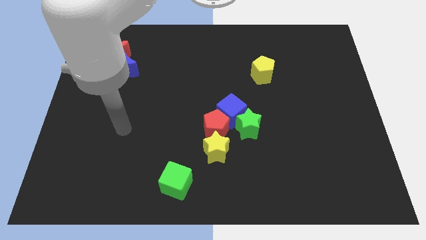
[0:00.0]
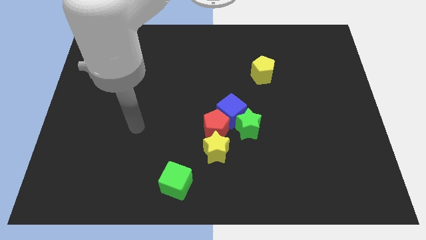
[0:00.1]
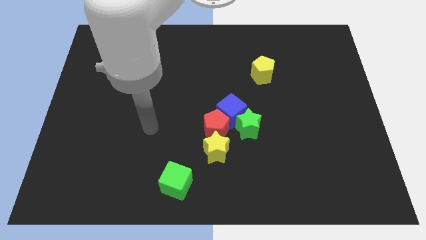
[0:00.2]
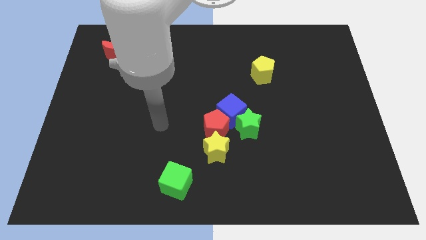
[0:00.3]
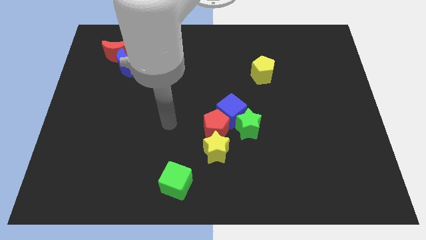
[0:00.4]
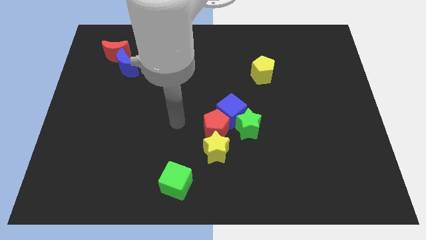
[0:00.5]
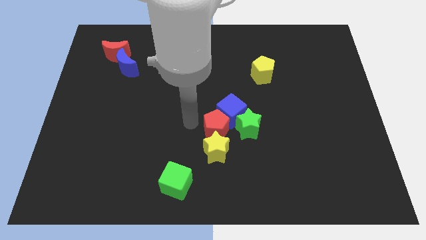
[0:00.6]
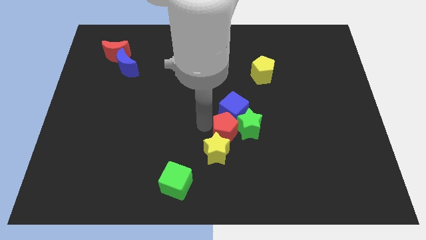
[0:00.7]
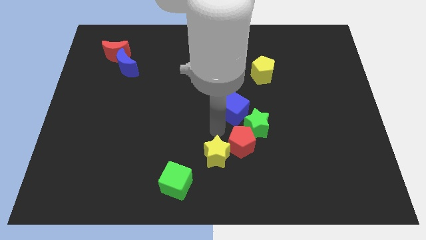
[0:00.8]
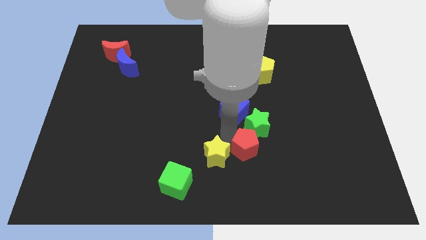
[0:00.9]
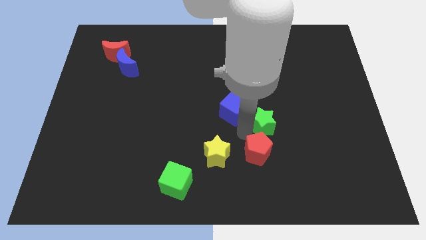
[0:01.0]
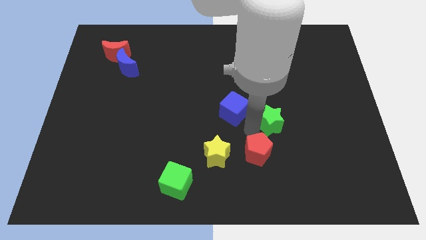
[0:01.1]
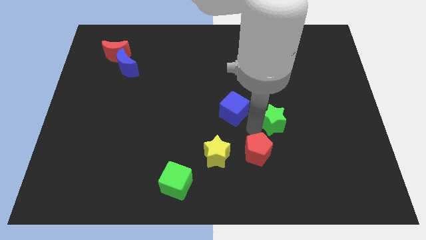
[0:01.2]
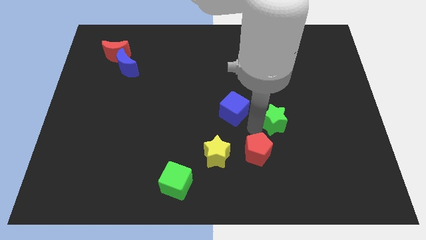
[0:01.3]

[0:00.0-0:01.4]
pull the blue cube apart from the red pentagon and green star

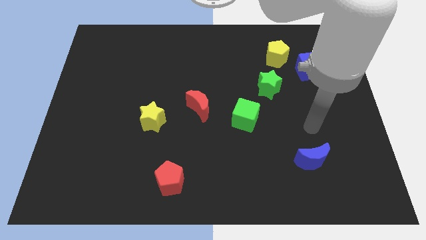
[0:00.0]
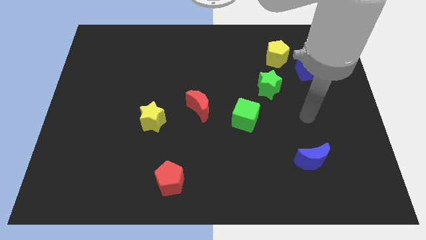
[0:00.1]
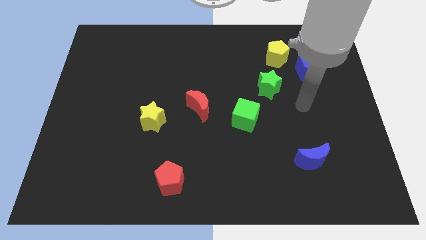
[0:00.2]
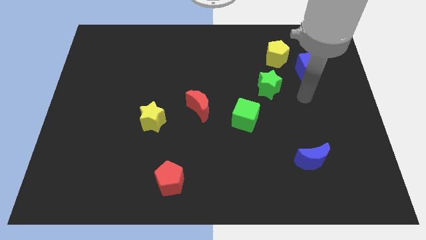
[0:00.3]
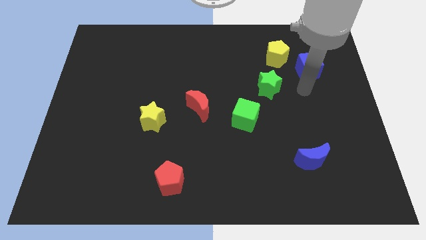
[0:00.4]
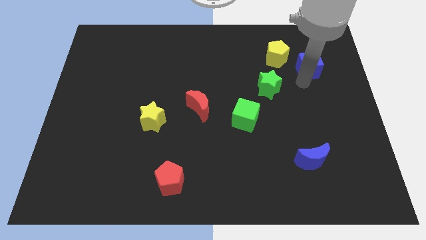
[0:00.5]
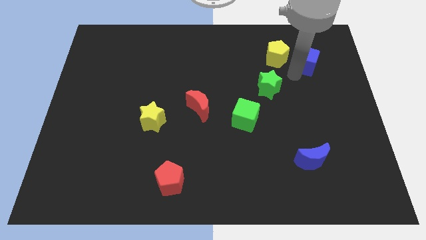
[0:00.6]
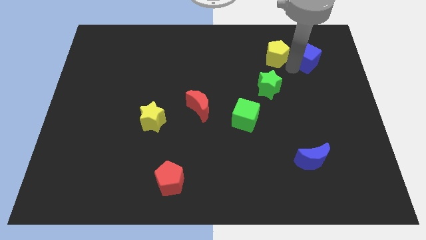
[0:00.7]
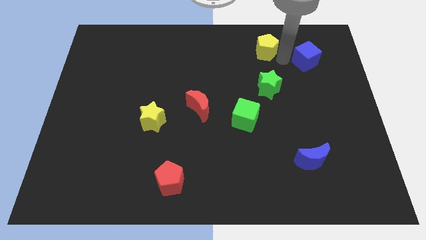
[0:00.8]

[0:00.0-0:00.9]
separate the blue cube from the yellow pentagon

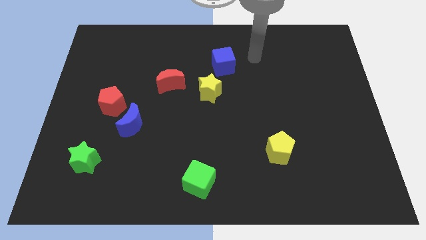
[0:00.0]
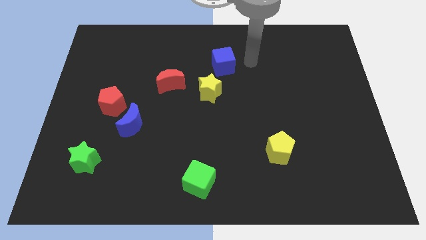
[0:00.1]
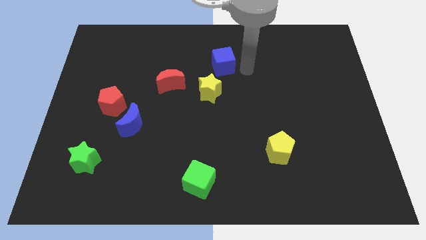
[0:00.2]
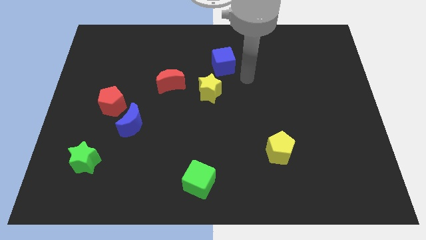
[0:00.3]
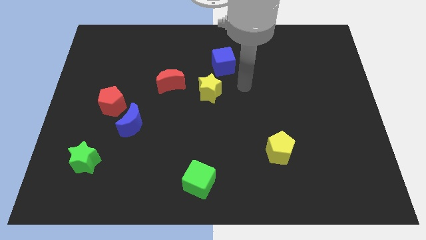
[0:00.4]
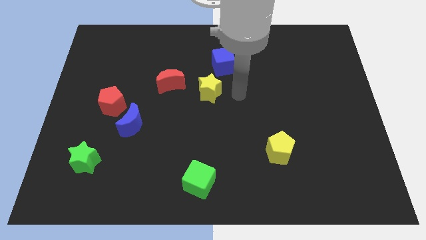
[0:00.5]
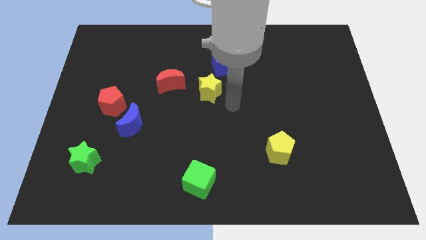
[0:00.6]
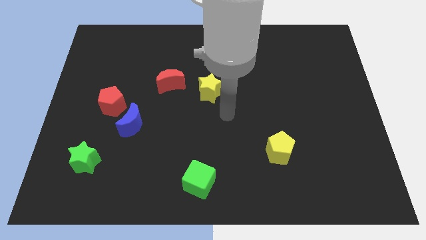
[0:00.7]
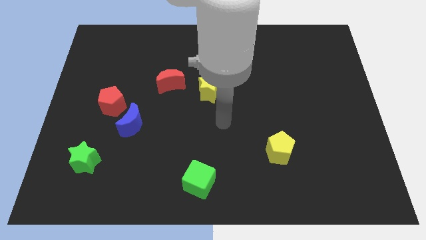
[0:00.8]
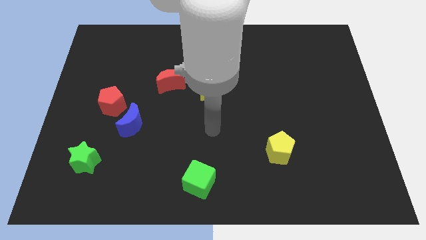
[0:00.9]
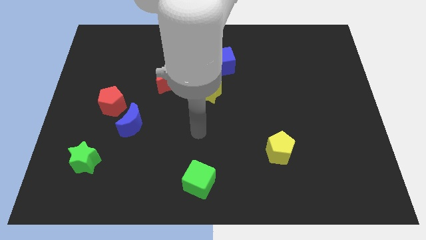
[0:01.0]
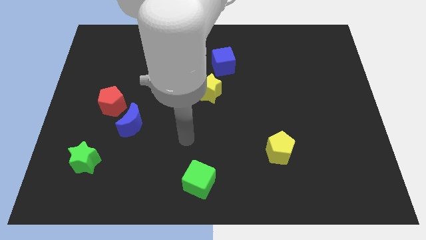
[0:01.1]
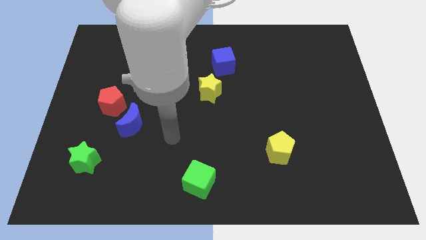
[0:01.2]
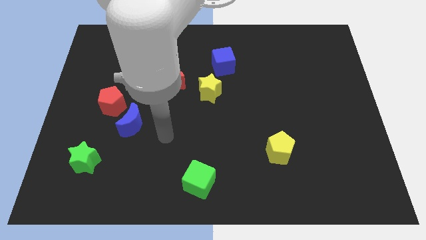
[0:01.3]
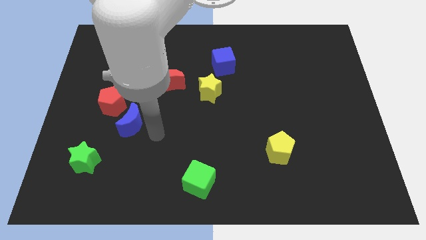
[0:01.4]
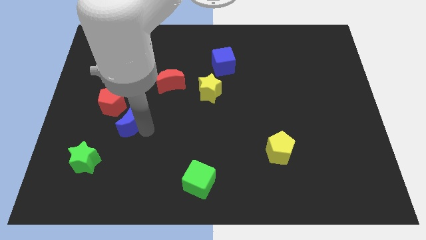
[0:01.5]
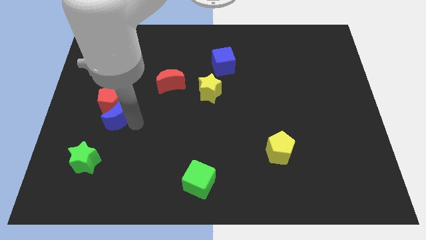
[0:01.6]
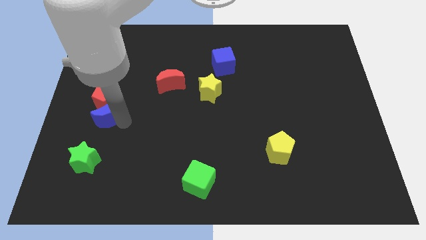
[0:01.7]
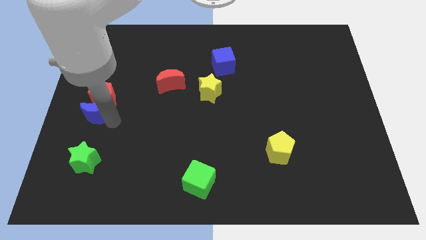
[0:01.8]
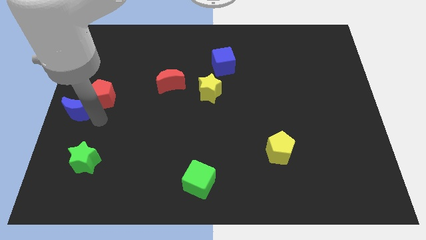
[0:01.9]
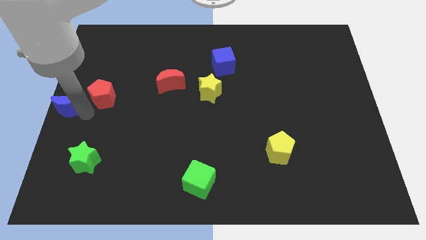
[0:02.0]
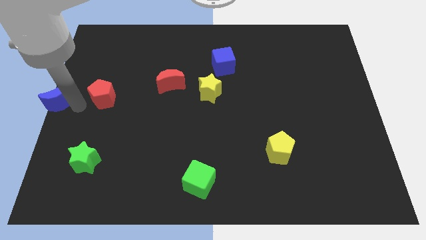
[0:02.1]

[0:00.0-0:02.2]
pull the red pentagon apart from the blue moon

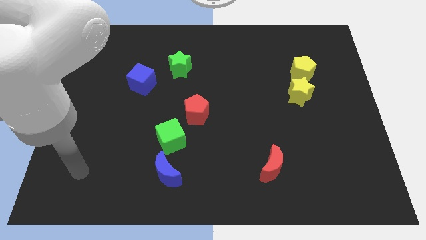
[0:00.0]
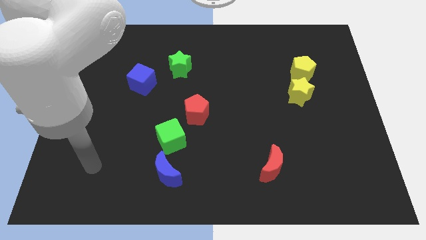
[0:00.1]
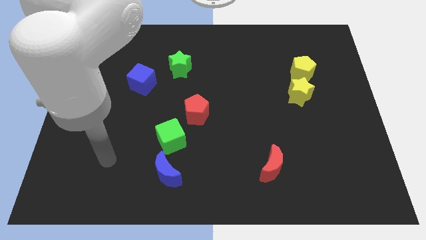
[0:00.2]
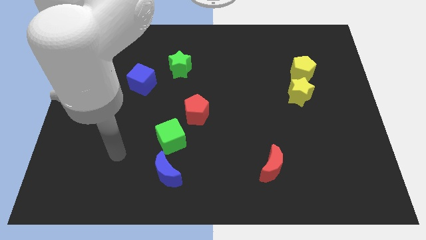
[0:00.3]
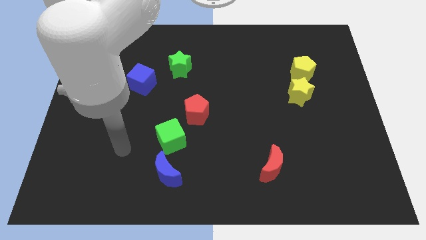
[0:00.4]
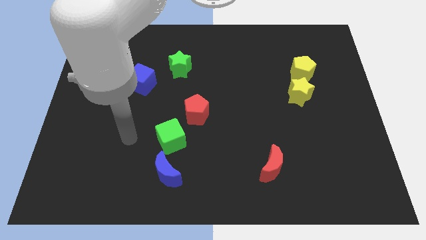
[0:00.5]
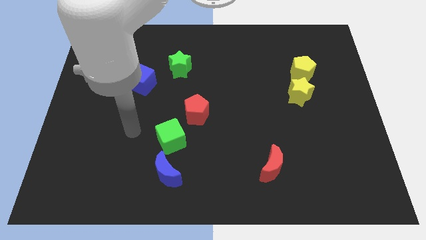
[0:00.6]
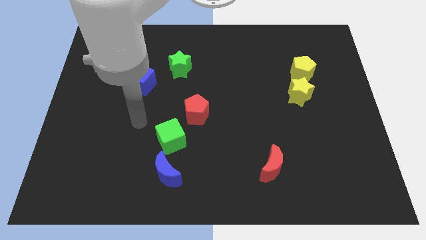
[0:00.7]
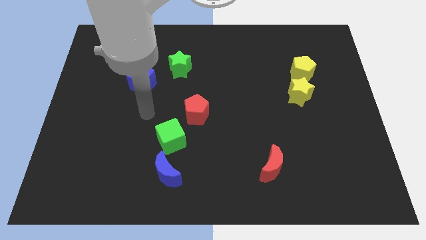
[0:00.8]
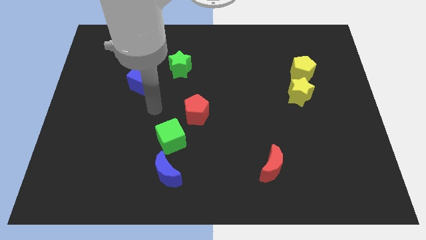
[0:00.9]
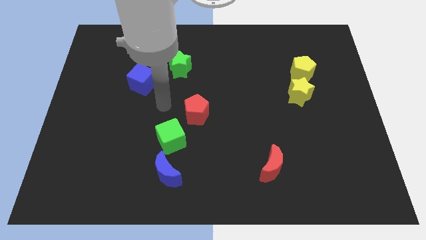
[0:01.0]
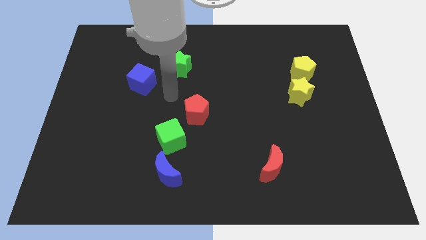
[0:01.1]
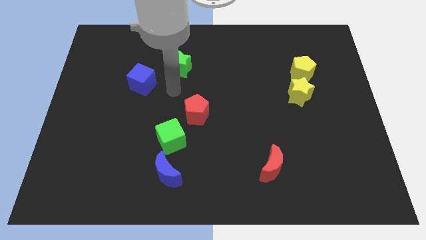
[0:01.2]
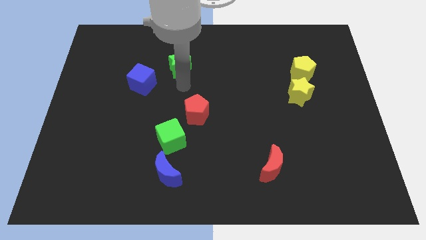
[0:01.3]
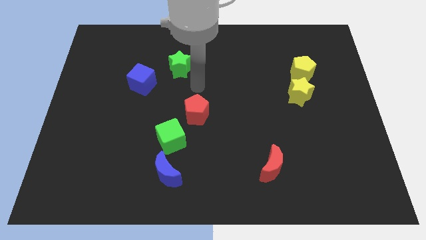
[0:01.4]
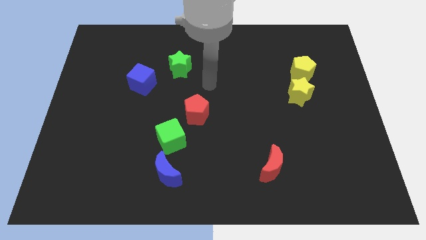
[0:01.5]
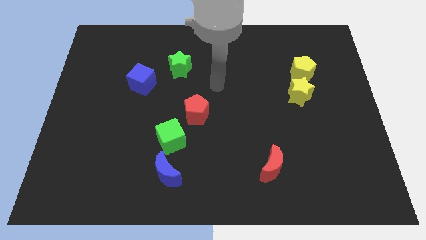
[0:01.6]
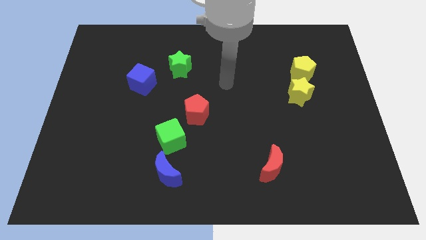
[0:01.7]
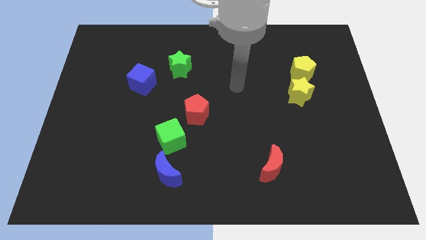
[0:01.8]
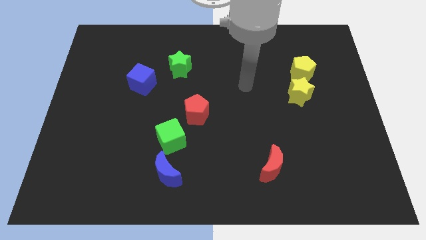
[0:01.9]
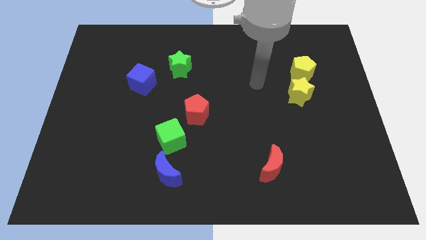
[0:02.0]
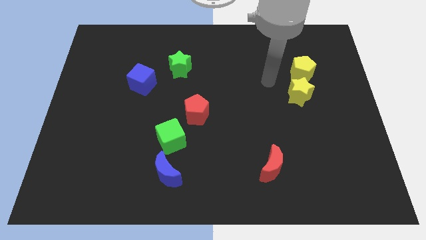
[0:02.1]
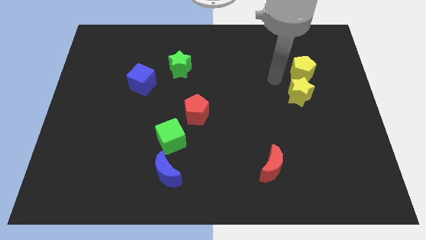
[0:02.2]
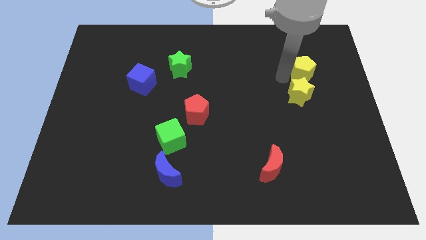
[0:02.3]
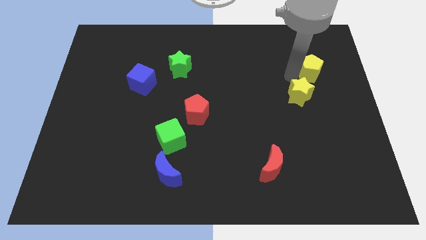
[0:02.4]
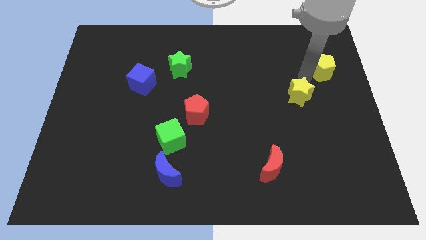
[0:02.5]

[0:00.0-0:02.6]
pull the yellow star apart from the yellow pentagon

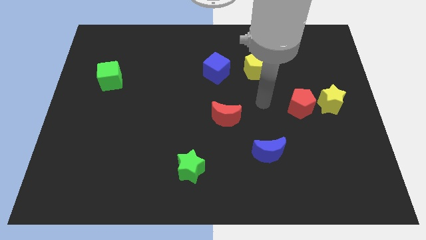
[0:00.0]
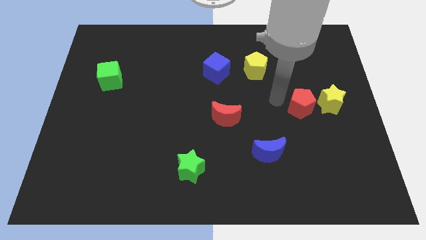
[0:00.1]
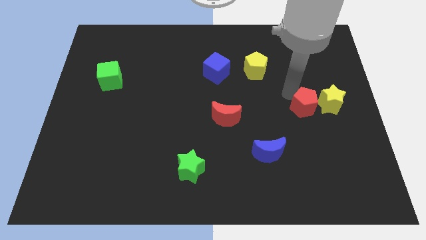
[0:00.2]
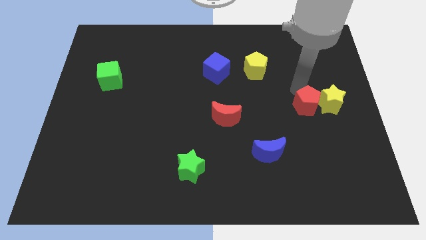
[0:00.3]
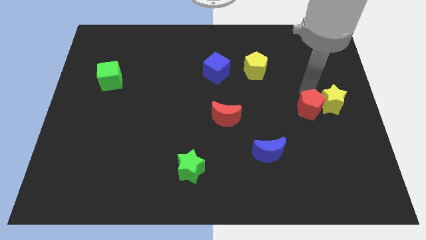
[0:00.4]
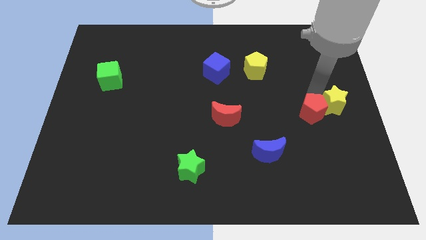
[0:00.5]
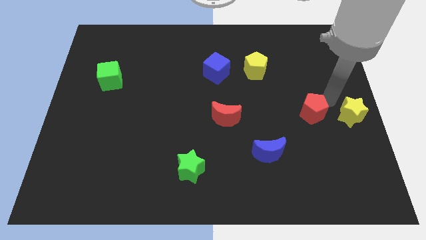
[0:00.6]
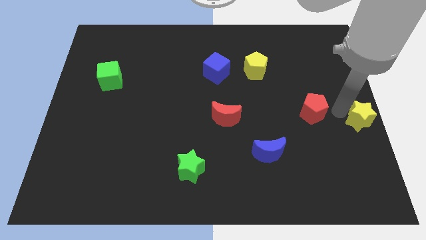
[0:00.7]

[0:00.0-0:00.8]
pull the red pentagon apart from the yellow star

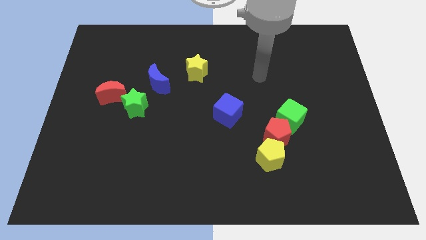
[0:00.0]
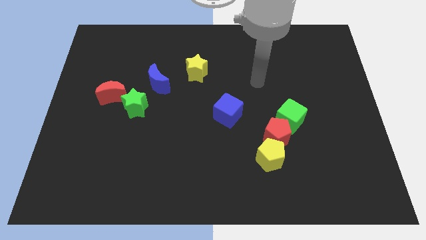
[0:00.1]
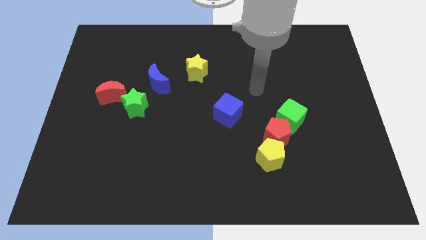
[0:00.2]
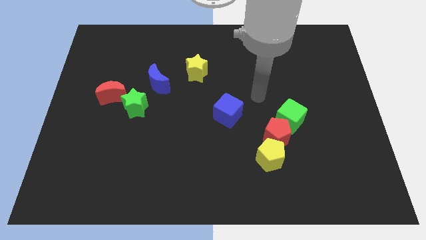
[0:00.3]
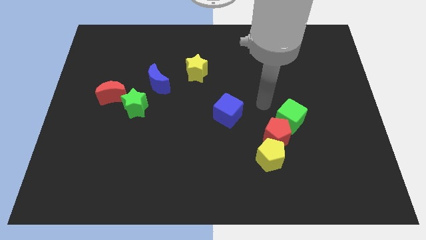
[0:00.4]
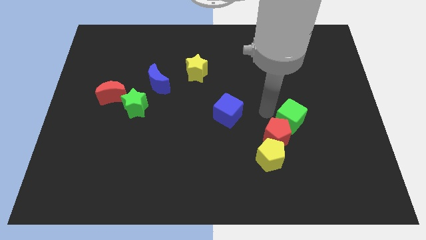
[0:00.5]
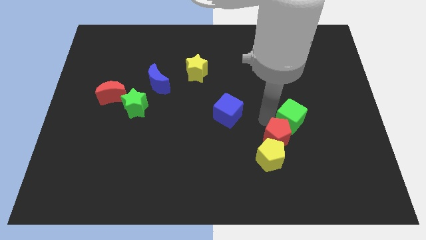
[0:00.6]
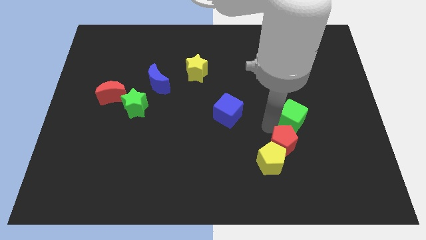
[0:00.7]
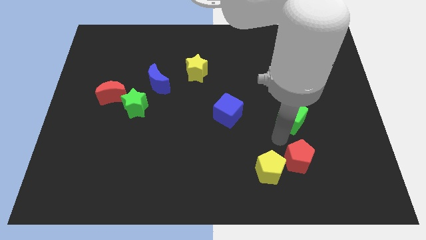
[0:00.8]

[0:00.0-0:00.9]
pull the green cube apart from the red pentagon

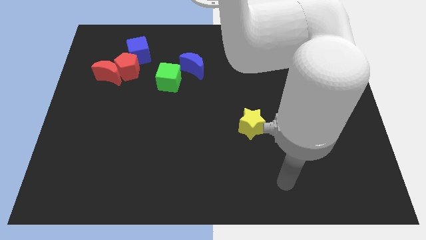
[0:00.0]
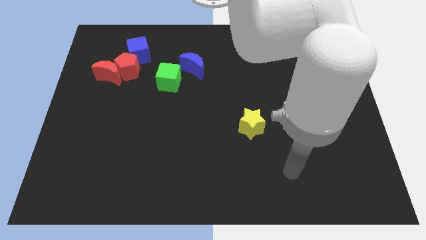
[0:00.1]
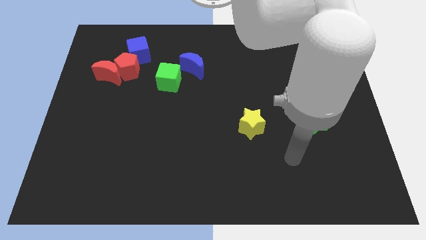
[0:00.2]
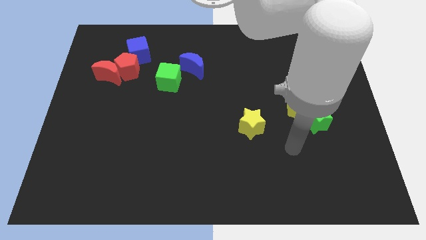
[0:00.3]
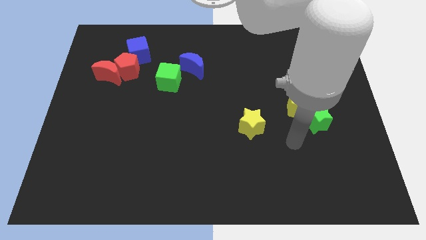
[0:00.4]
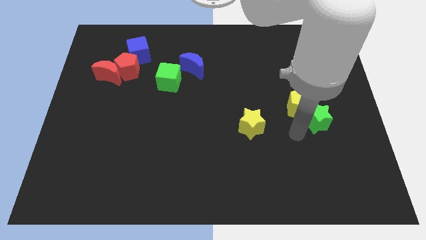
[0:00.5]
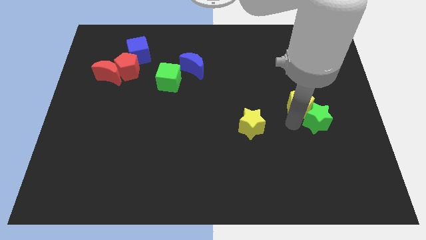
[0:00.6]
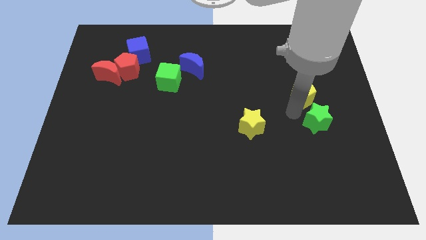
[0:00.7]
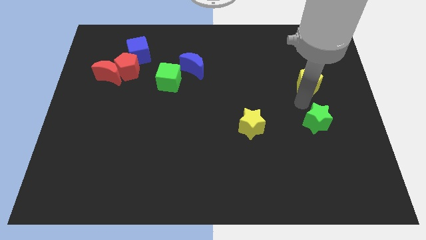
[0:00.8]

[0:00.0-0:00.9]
separate the green star from the yellow pentagon
